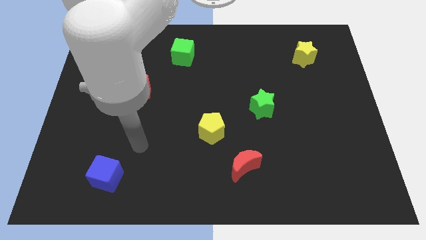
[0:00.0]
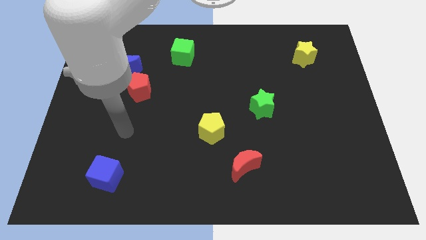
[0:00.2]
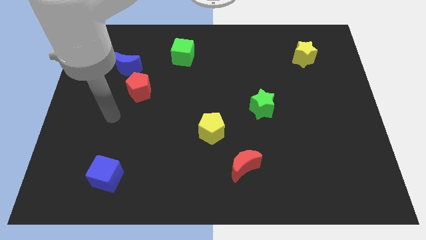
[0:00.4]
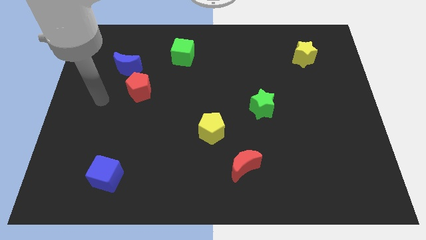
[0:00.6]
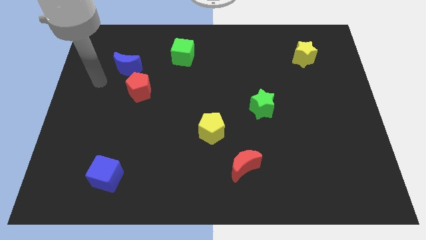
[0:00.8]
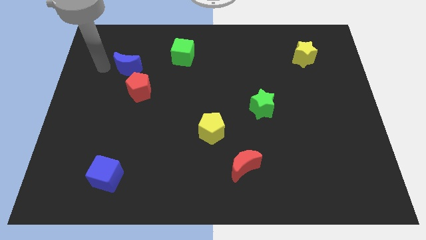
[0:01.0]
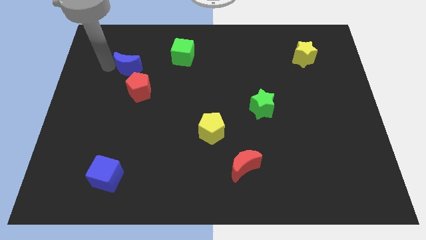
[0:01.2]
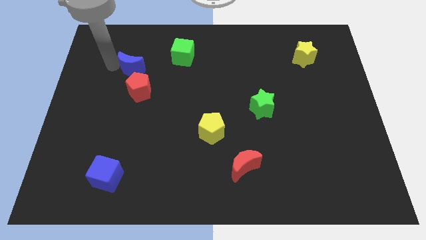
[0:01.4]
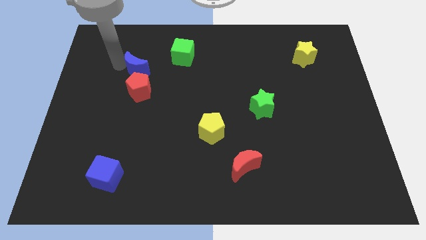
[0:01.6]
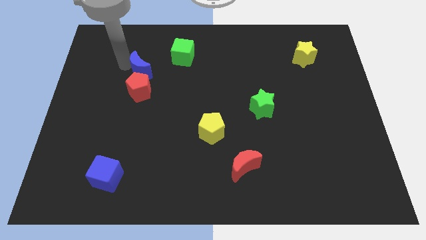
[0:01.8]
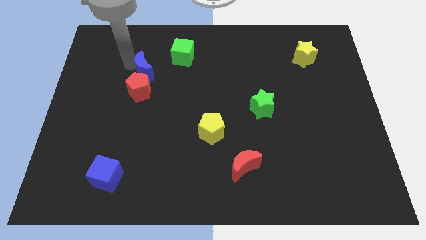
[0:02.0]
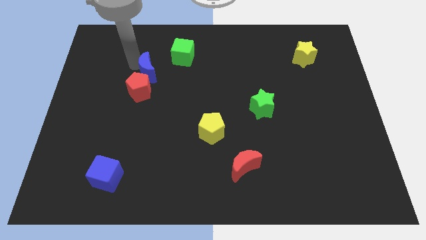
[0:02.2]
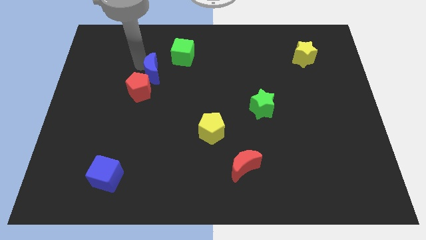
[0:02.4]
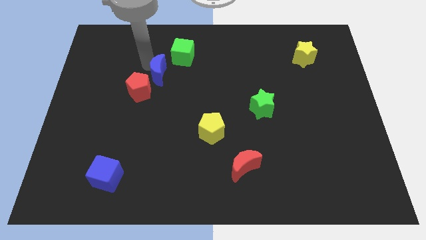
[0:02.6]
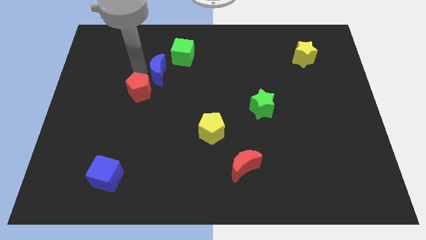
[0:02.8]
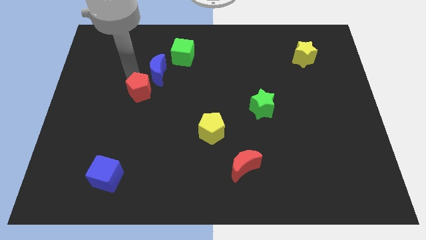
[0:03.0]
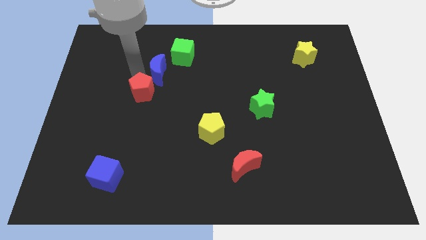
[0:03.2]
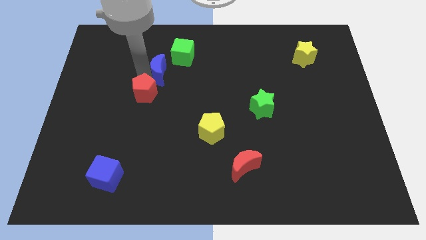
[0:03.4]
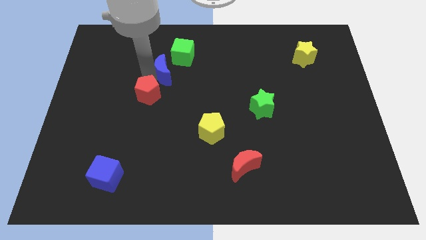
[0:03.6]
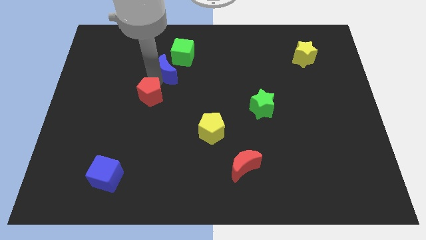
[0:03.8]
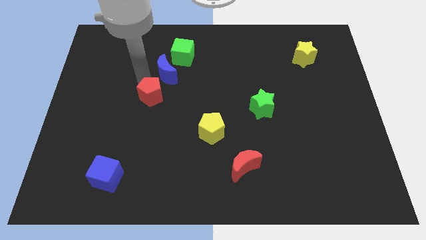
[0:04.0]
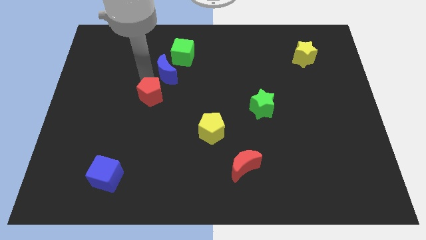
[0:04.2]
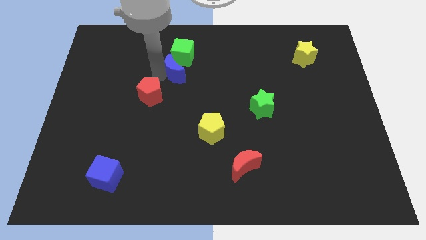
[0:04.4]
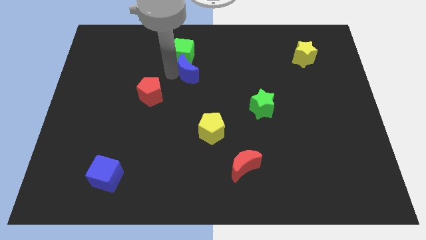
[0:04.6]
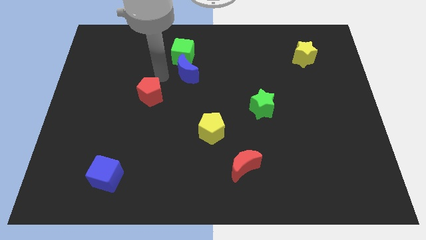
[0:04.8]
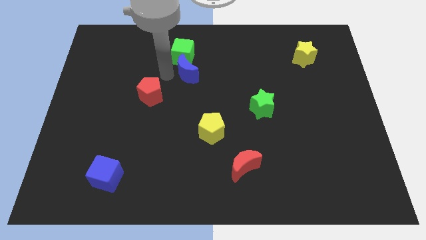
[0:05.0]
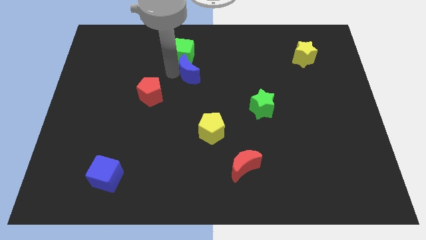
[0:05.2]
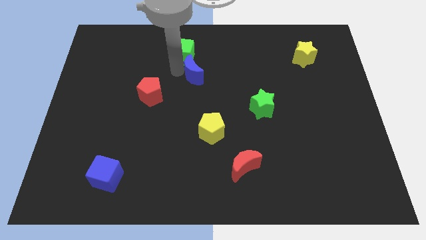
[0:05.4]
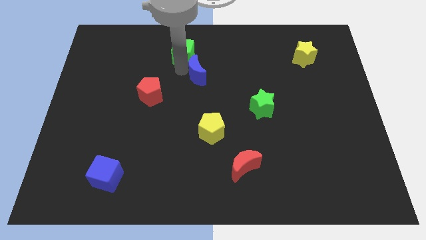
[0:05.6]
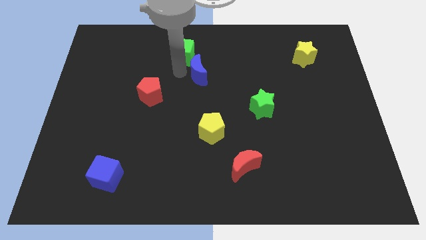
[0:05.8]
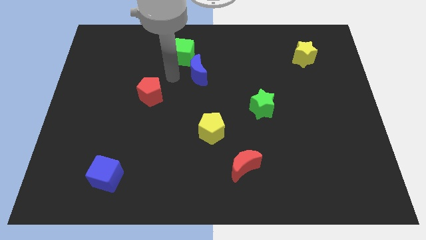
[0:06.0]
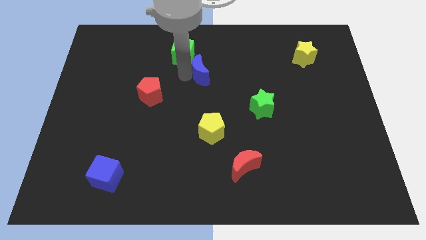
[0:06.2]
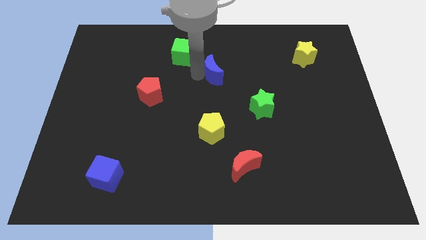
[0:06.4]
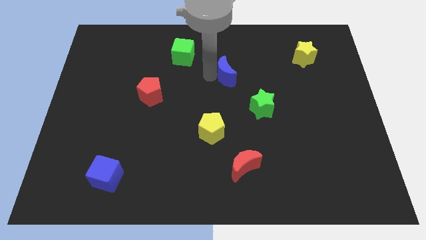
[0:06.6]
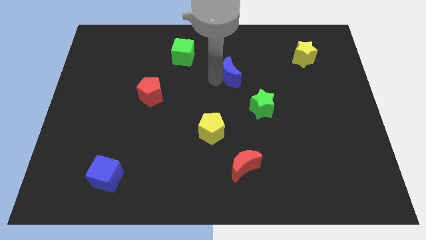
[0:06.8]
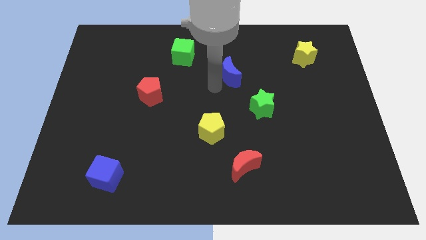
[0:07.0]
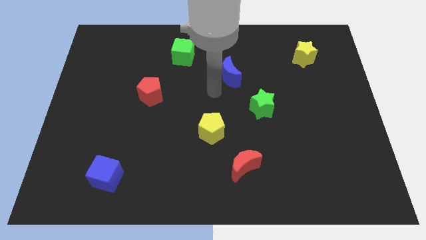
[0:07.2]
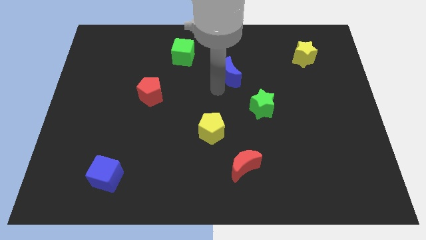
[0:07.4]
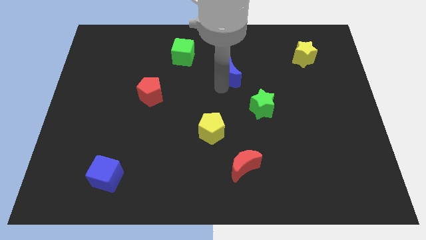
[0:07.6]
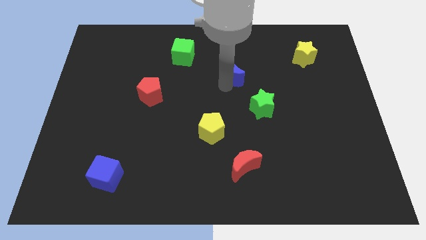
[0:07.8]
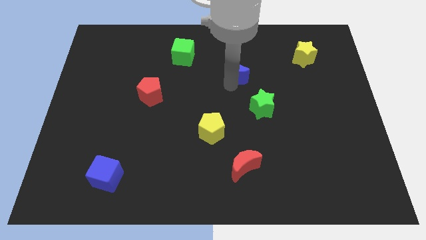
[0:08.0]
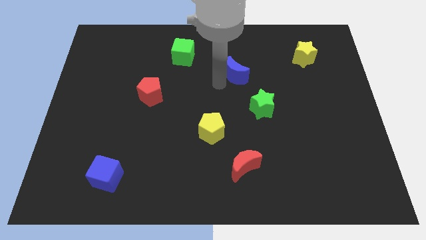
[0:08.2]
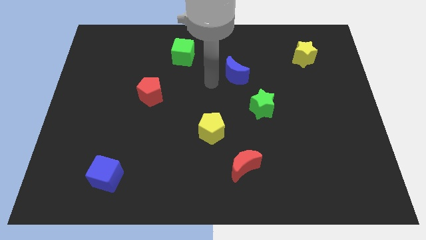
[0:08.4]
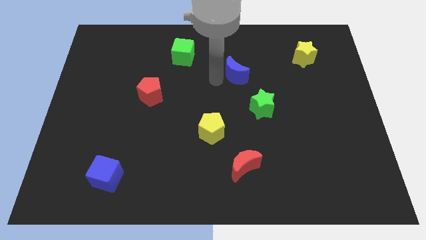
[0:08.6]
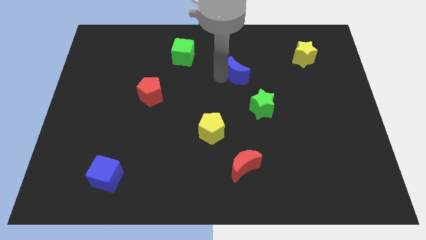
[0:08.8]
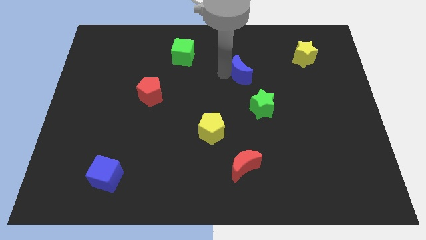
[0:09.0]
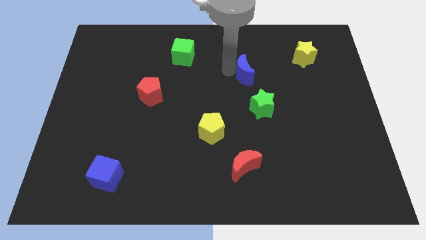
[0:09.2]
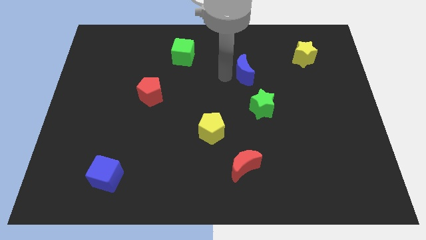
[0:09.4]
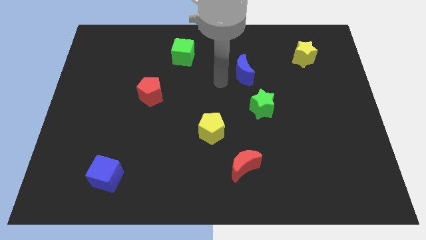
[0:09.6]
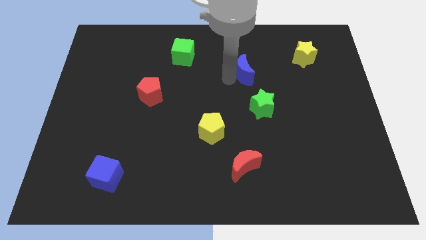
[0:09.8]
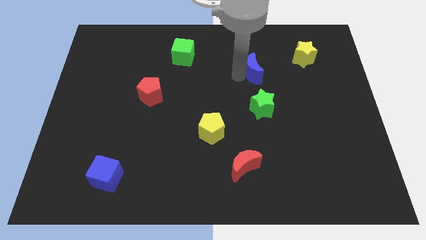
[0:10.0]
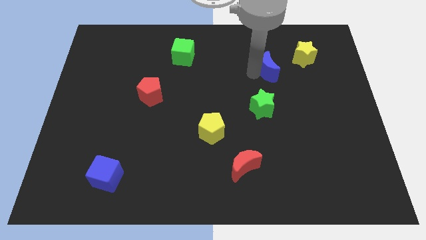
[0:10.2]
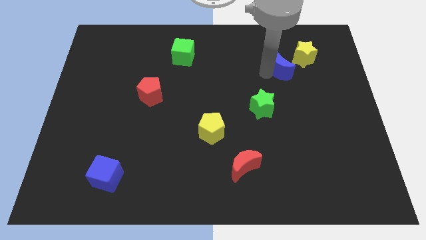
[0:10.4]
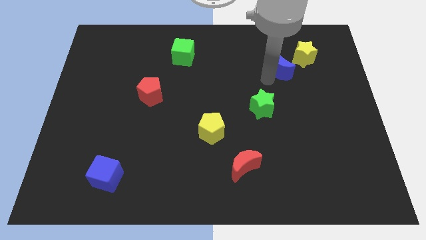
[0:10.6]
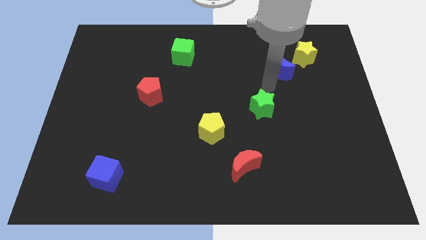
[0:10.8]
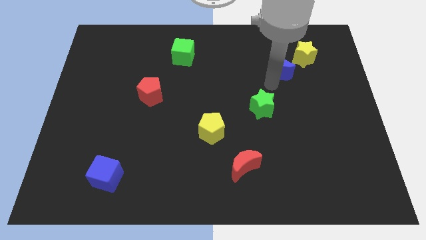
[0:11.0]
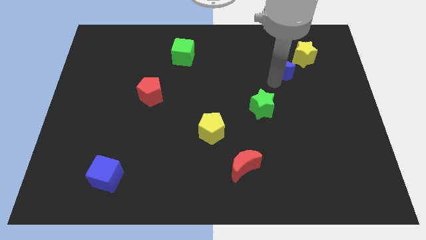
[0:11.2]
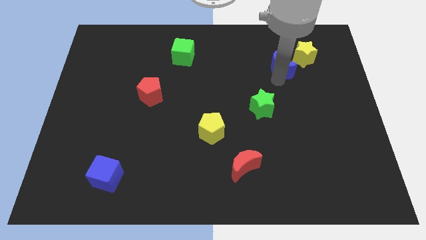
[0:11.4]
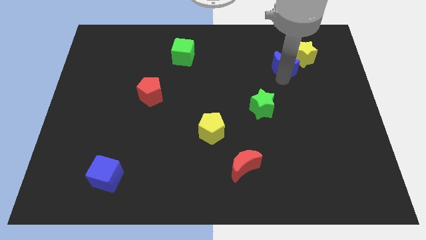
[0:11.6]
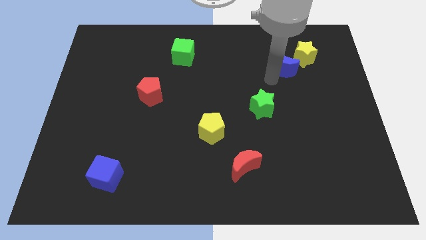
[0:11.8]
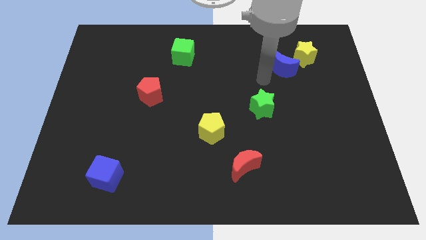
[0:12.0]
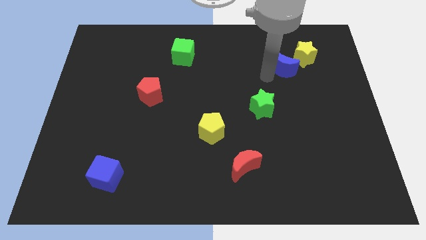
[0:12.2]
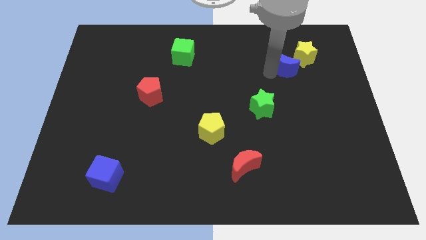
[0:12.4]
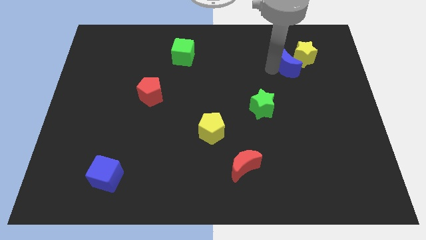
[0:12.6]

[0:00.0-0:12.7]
slide the blue moon towards the yellow star

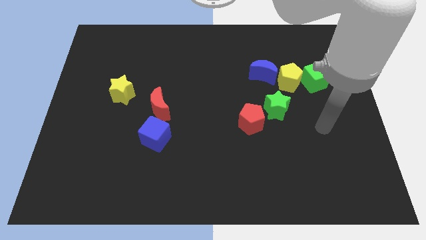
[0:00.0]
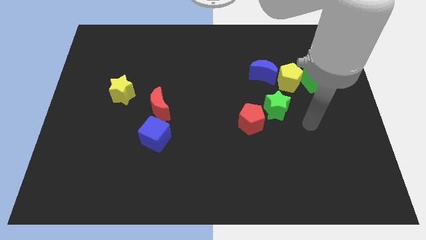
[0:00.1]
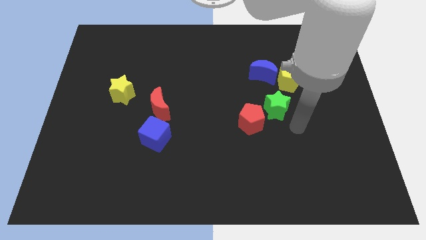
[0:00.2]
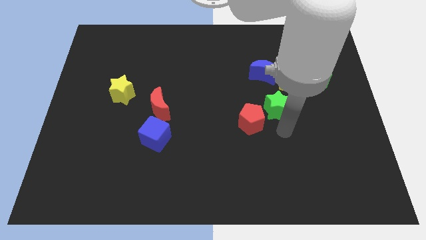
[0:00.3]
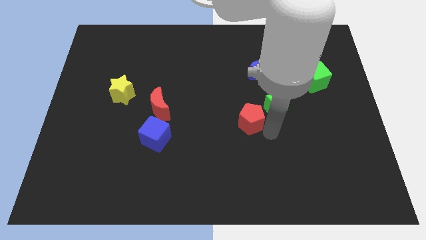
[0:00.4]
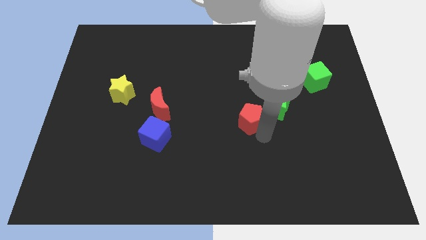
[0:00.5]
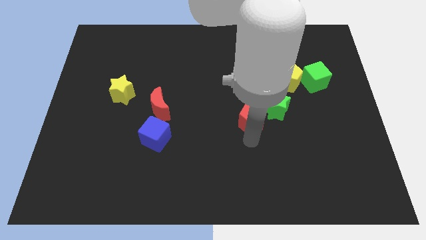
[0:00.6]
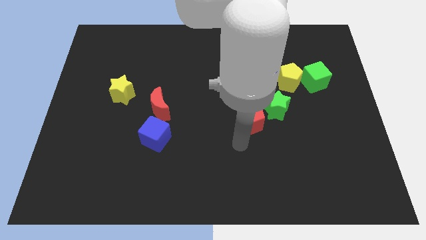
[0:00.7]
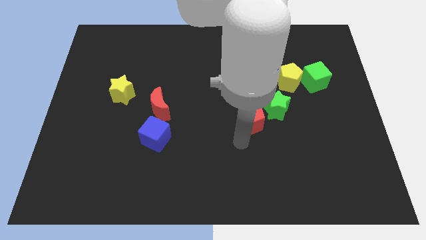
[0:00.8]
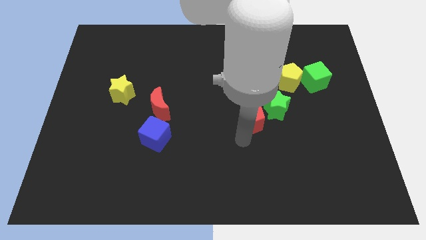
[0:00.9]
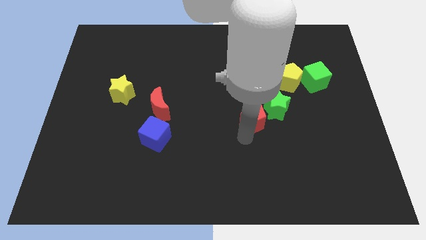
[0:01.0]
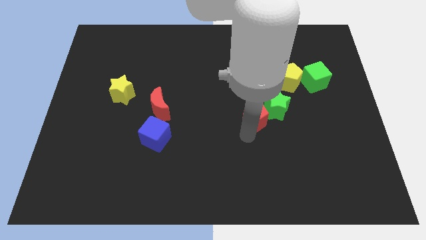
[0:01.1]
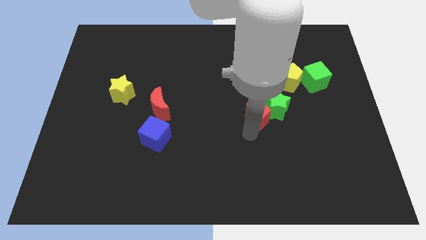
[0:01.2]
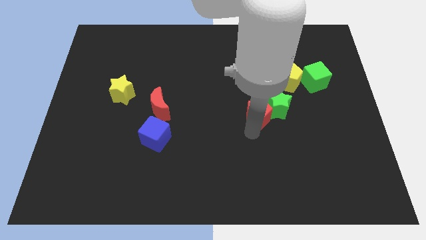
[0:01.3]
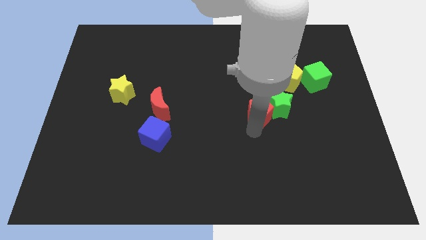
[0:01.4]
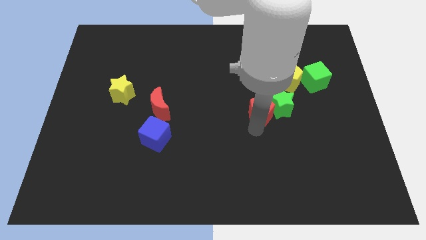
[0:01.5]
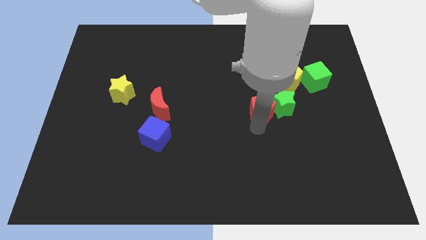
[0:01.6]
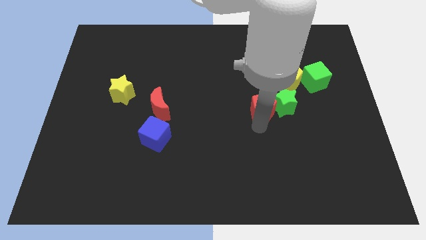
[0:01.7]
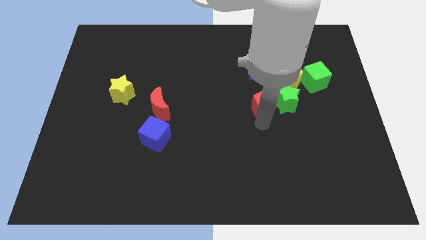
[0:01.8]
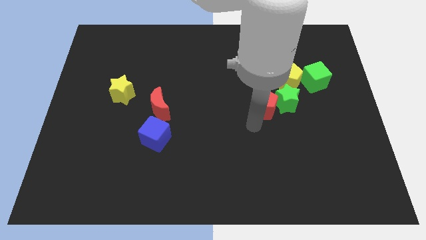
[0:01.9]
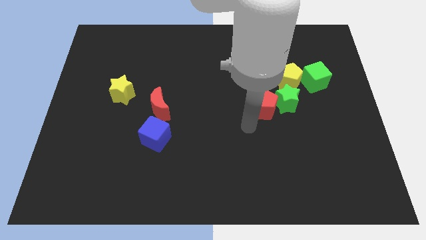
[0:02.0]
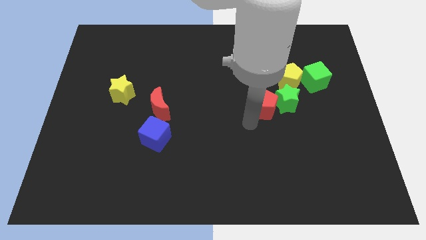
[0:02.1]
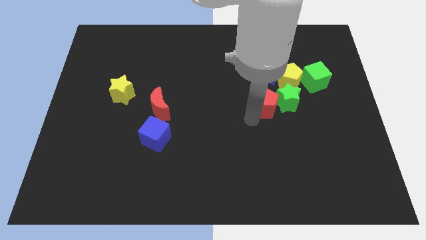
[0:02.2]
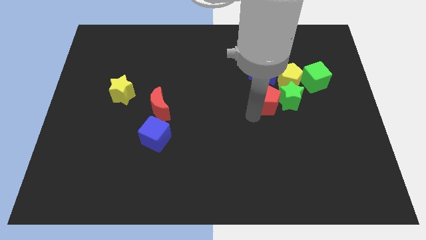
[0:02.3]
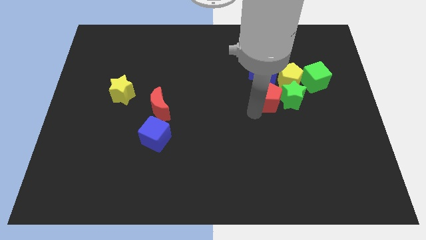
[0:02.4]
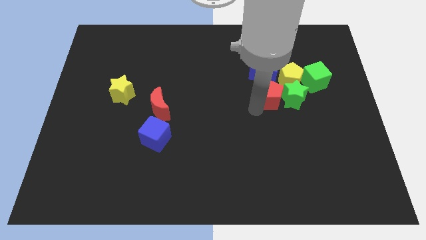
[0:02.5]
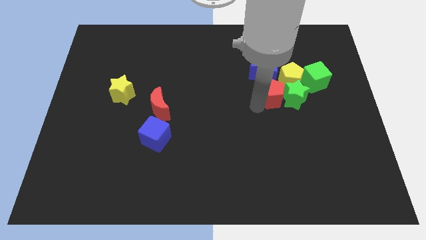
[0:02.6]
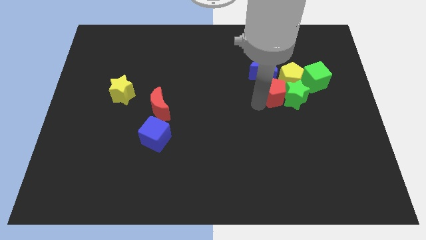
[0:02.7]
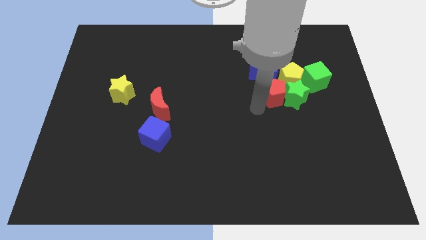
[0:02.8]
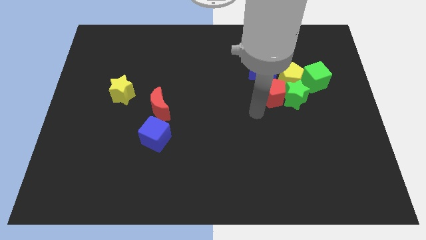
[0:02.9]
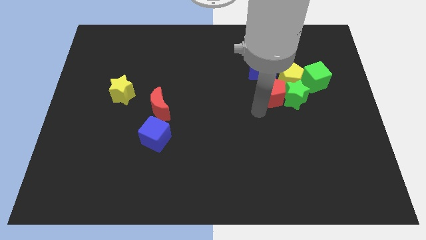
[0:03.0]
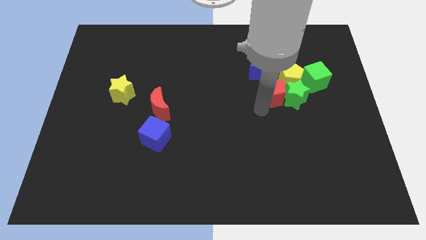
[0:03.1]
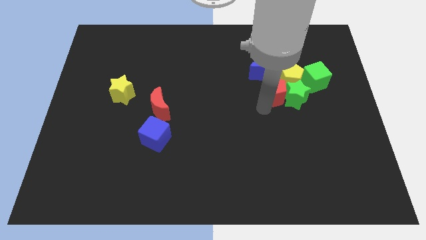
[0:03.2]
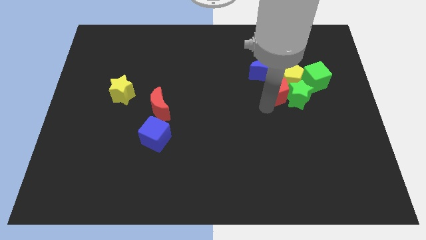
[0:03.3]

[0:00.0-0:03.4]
push the red pentagon next to the yellow pentagon
